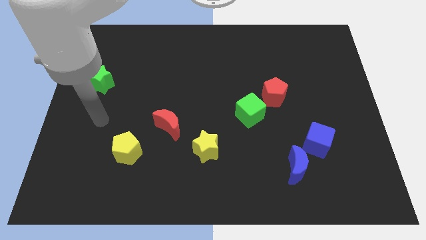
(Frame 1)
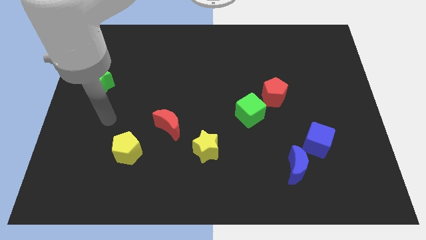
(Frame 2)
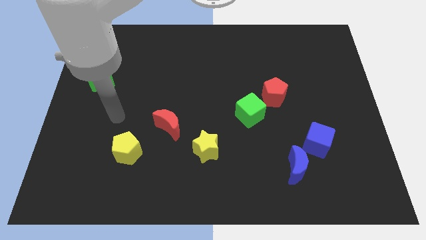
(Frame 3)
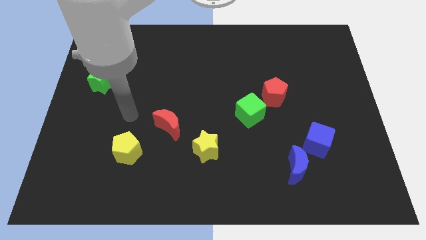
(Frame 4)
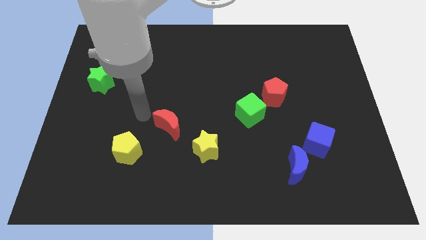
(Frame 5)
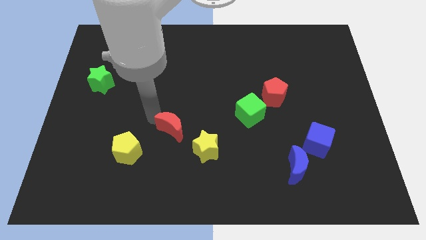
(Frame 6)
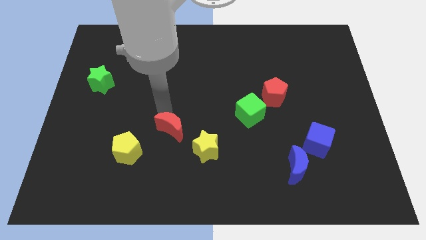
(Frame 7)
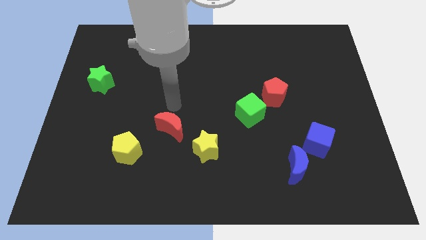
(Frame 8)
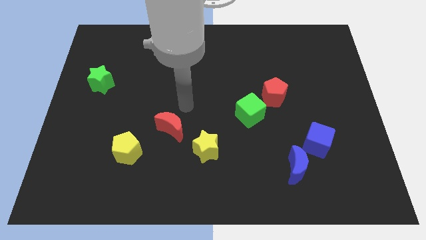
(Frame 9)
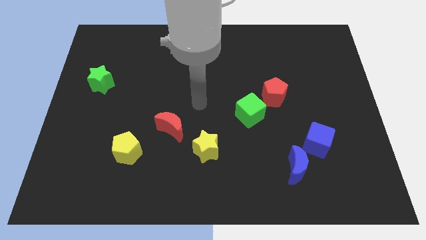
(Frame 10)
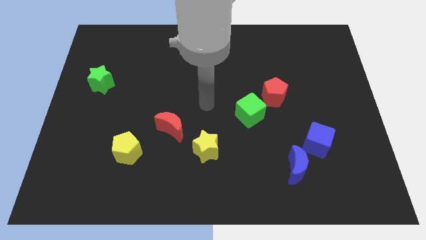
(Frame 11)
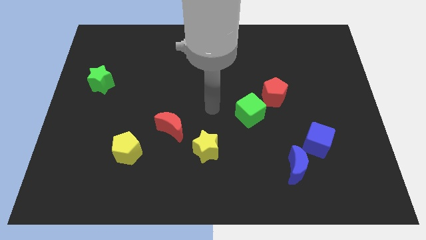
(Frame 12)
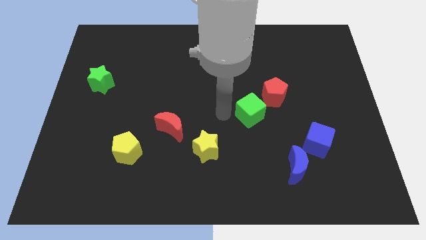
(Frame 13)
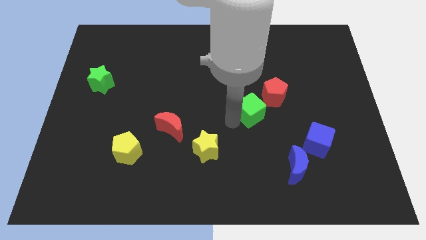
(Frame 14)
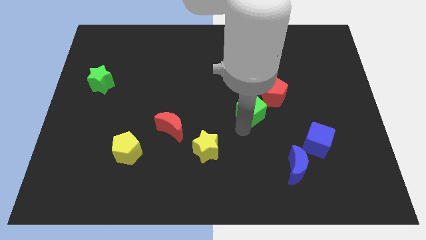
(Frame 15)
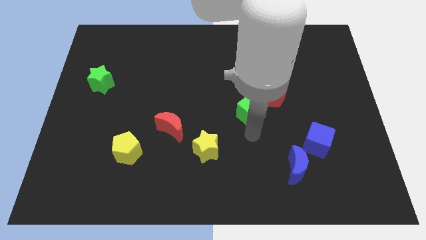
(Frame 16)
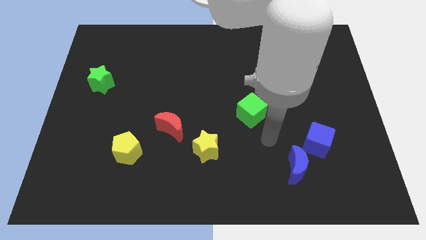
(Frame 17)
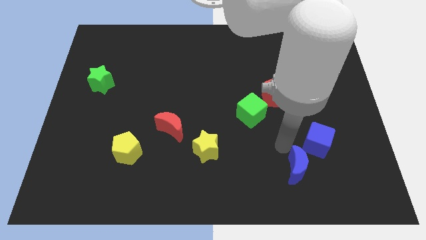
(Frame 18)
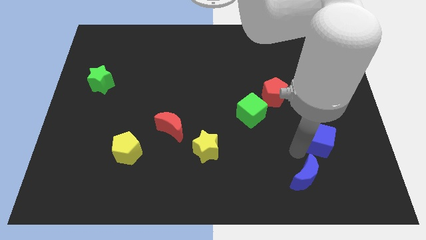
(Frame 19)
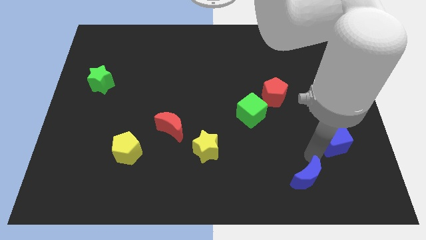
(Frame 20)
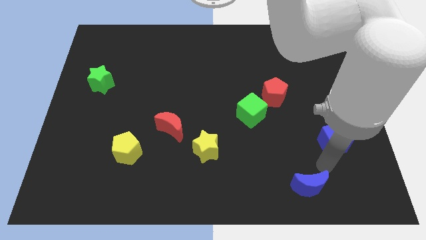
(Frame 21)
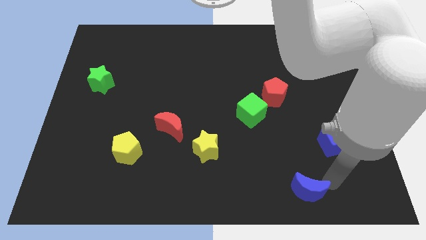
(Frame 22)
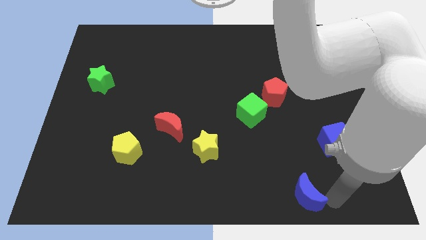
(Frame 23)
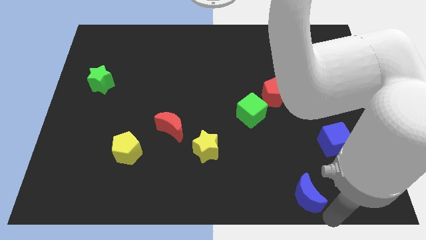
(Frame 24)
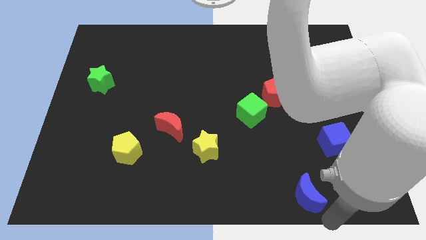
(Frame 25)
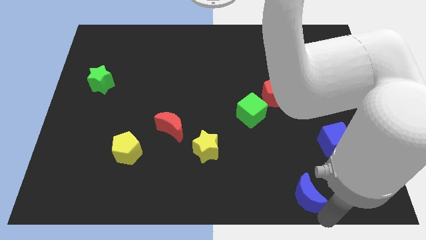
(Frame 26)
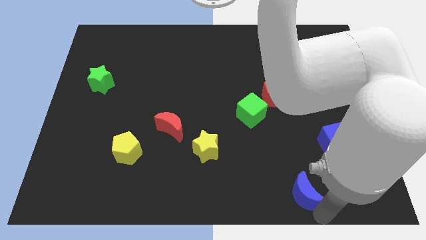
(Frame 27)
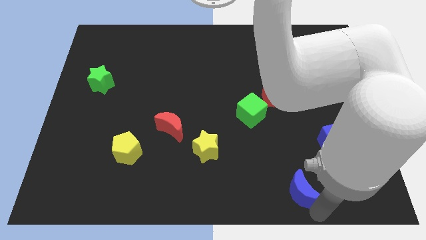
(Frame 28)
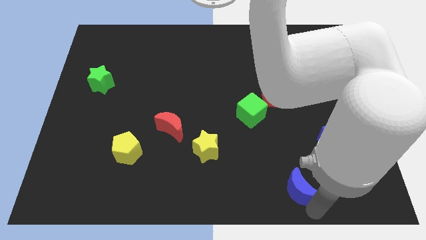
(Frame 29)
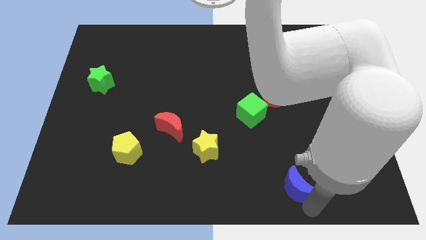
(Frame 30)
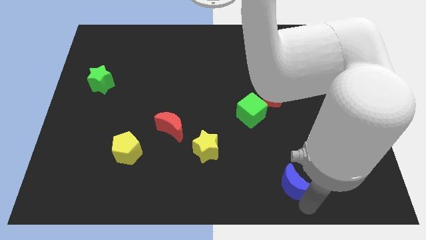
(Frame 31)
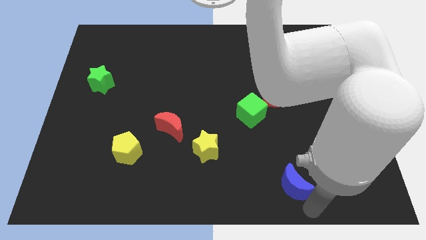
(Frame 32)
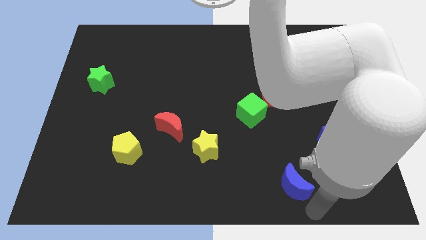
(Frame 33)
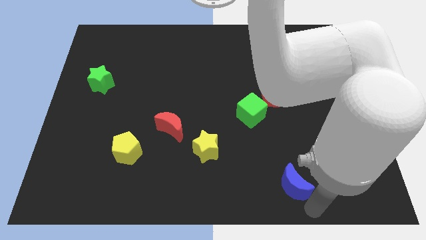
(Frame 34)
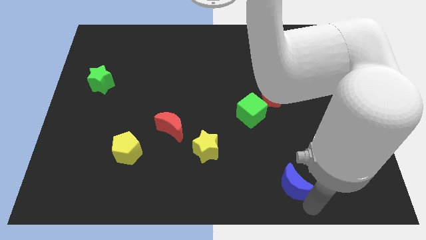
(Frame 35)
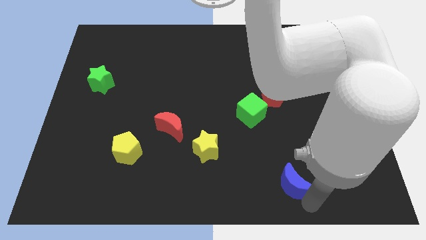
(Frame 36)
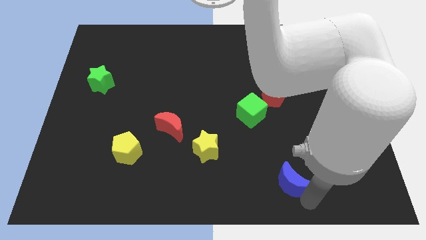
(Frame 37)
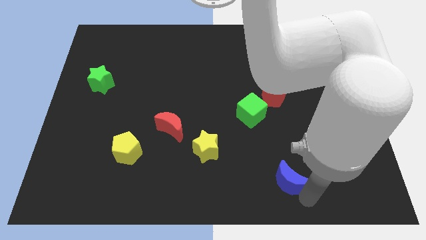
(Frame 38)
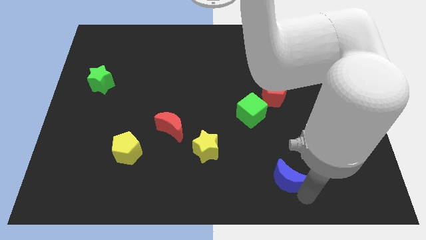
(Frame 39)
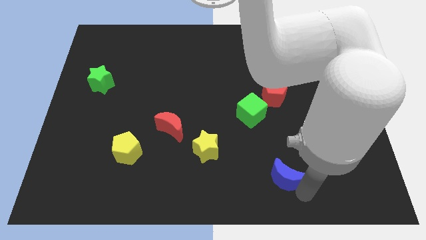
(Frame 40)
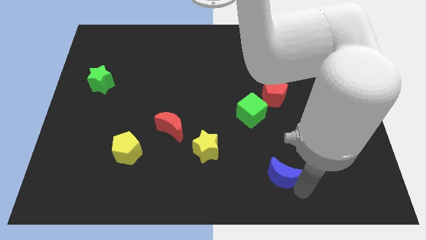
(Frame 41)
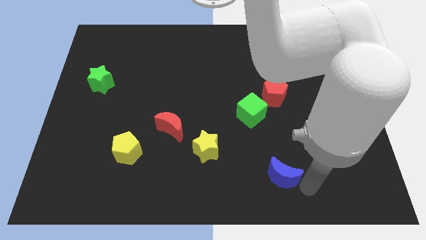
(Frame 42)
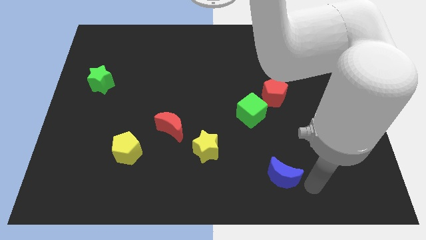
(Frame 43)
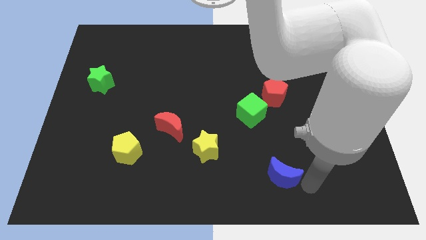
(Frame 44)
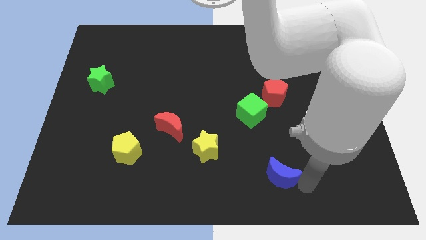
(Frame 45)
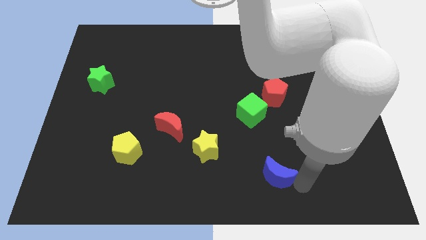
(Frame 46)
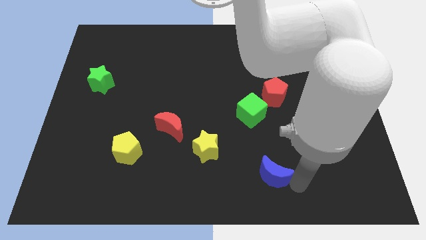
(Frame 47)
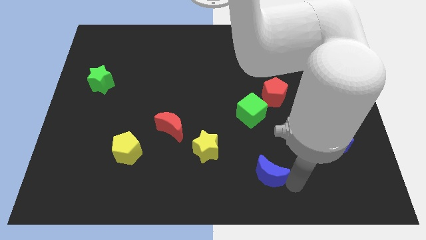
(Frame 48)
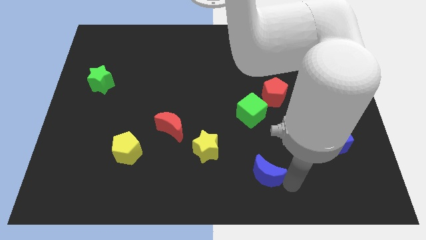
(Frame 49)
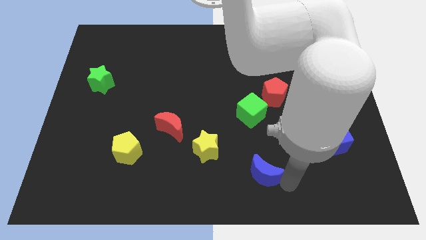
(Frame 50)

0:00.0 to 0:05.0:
move the blue moon to the left slightly

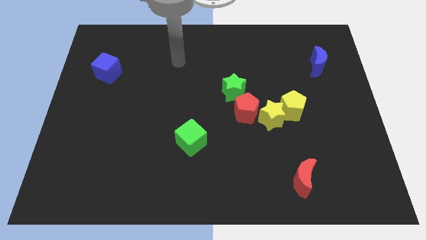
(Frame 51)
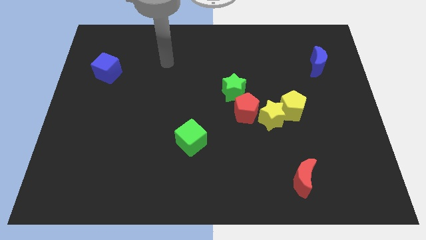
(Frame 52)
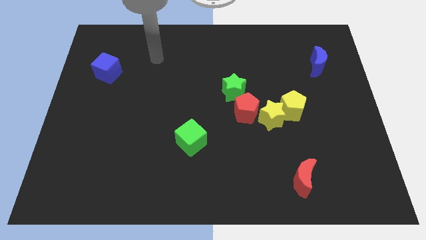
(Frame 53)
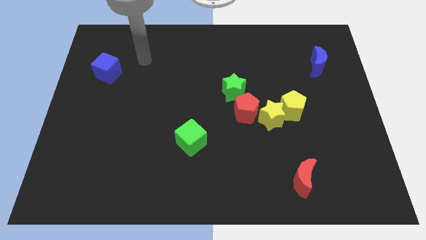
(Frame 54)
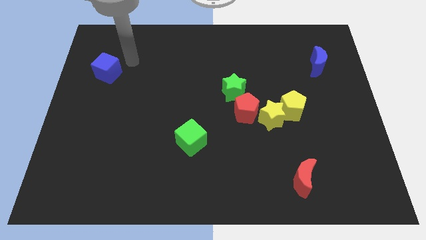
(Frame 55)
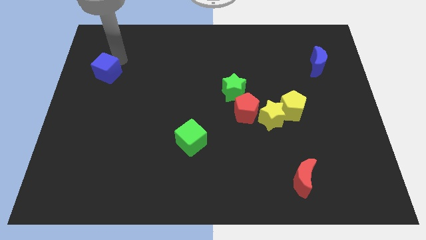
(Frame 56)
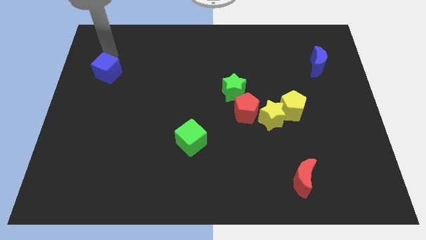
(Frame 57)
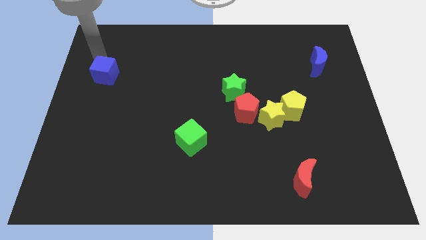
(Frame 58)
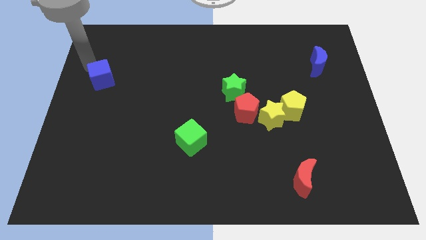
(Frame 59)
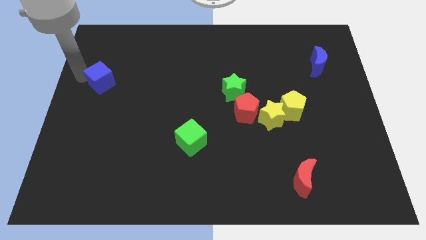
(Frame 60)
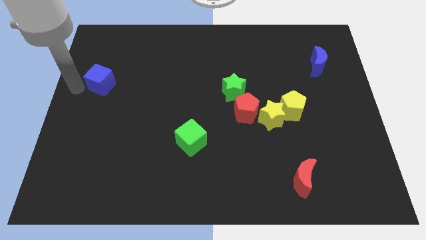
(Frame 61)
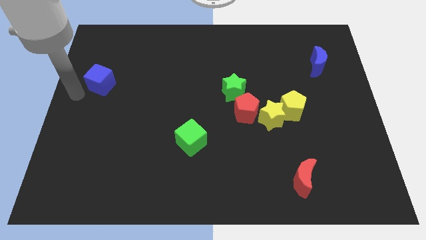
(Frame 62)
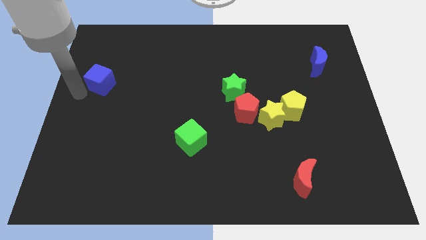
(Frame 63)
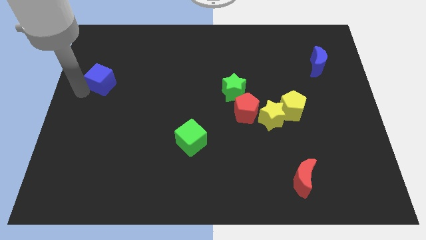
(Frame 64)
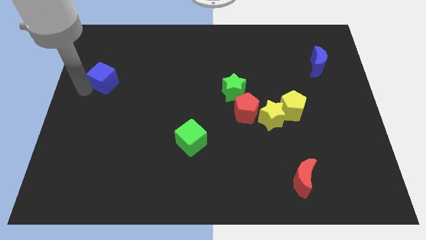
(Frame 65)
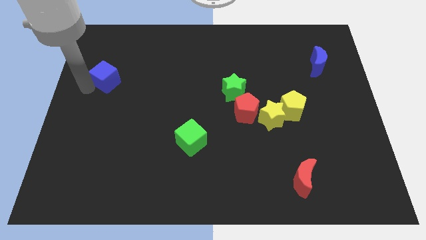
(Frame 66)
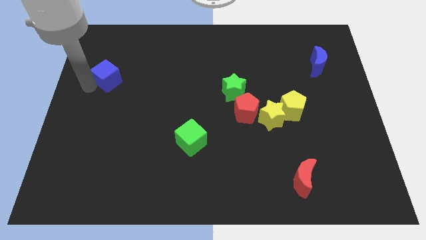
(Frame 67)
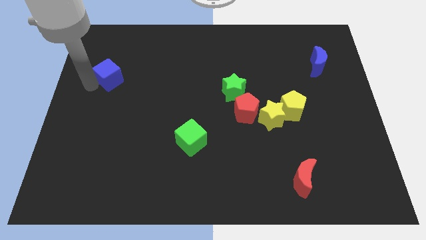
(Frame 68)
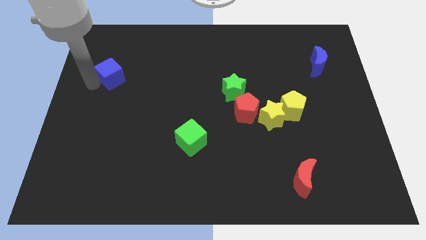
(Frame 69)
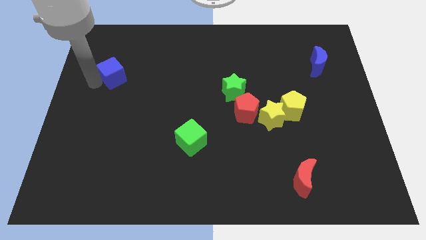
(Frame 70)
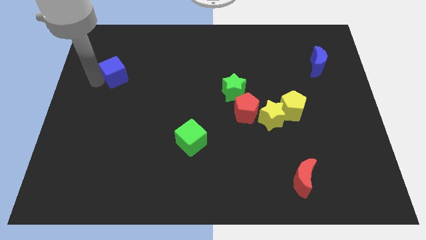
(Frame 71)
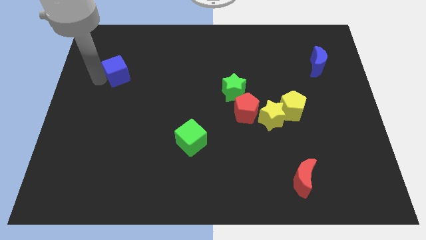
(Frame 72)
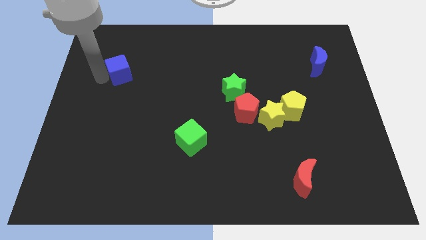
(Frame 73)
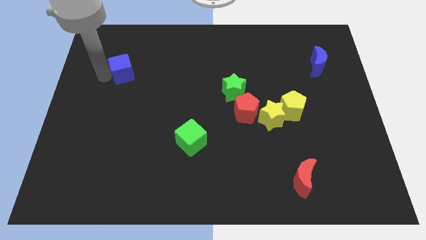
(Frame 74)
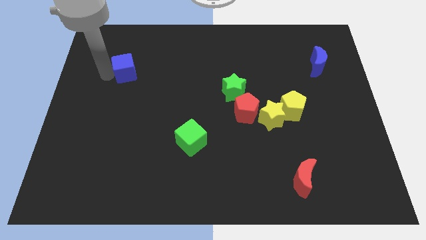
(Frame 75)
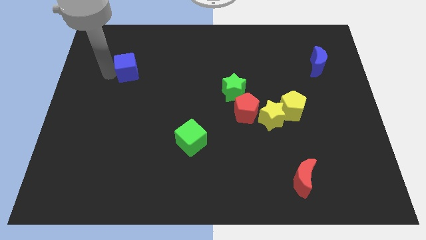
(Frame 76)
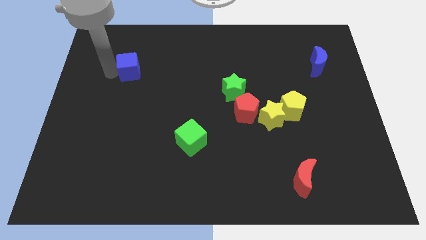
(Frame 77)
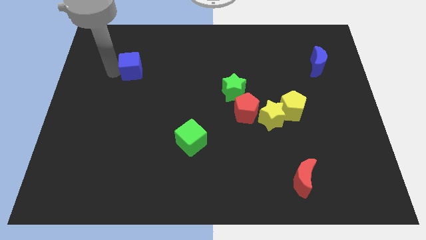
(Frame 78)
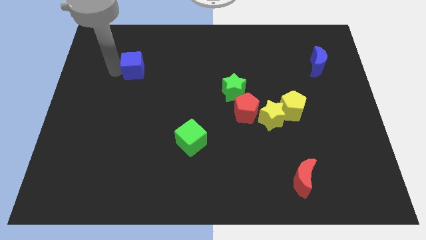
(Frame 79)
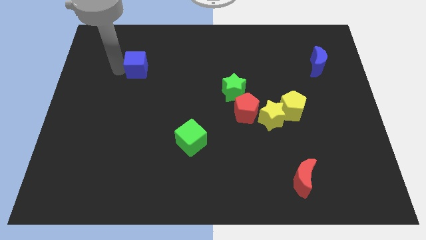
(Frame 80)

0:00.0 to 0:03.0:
push the blue cube to the right slightly
